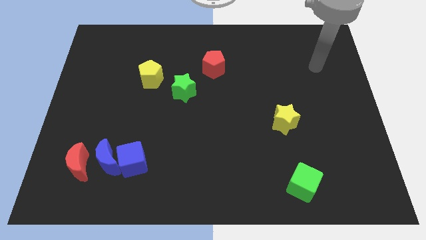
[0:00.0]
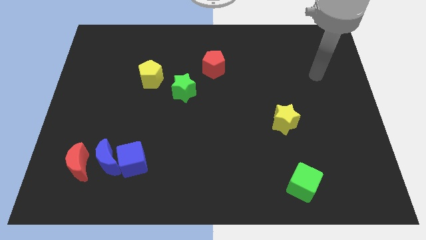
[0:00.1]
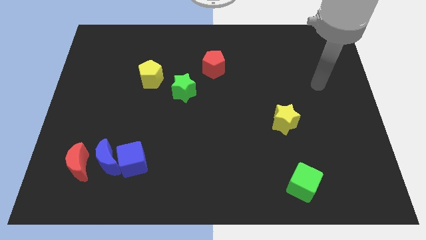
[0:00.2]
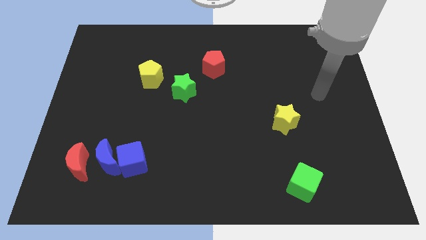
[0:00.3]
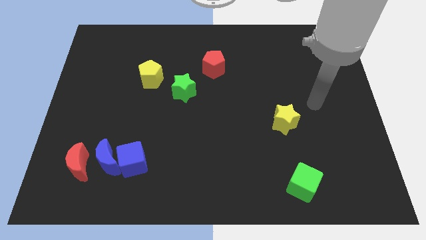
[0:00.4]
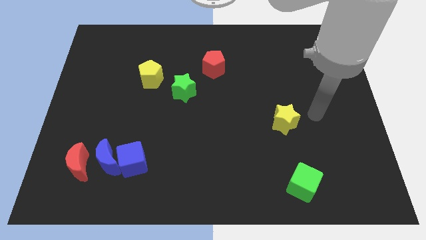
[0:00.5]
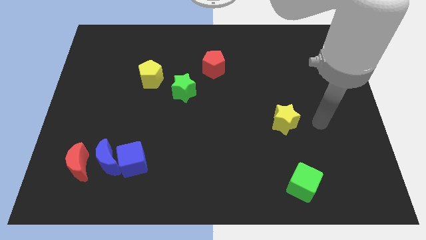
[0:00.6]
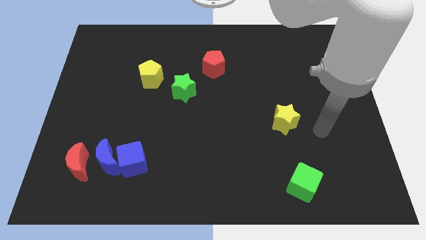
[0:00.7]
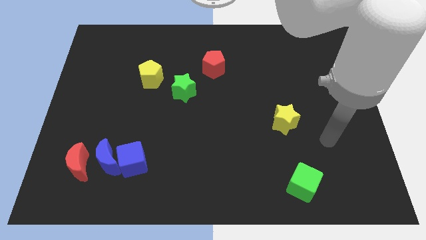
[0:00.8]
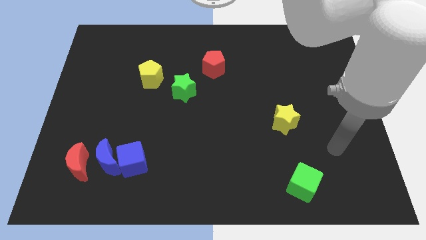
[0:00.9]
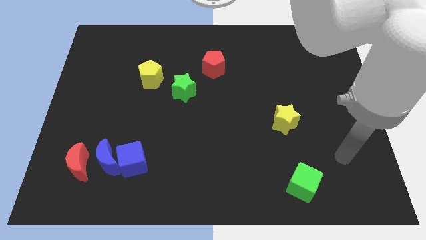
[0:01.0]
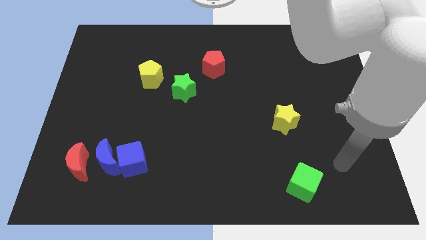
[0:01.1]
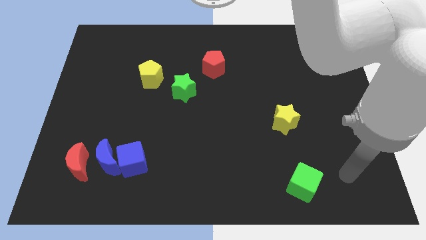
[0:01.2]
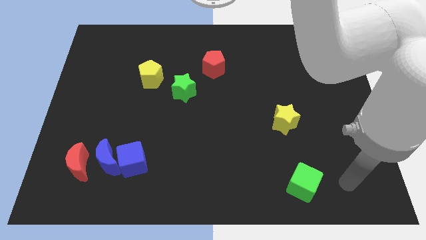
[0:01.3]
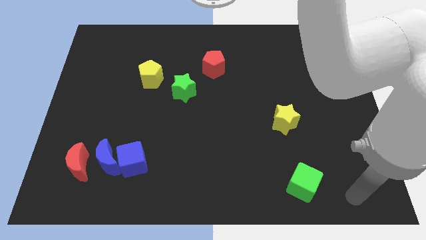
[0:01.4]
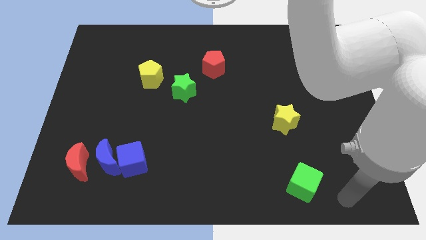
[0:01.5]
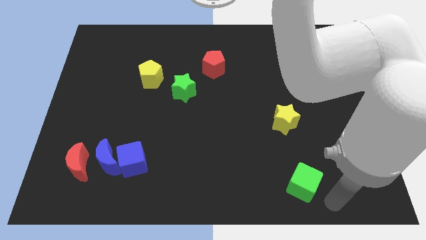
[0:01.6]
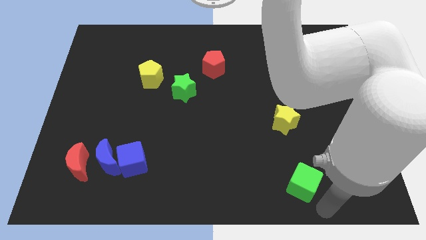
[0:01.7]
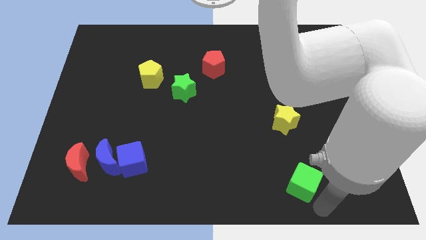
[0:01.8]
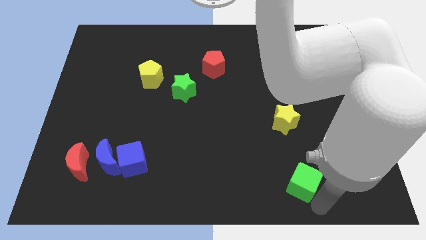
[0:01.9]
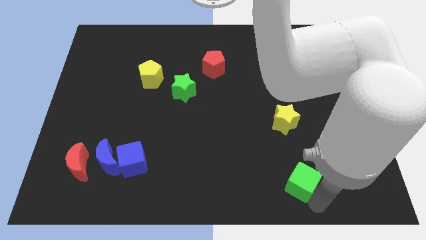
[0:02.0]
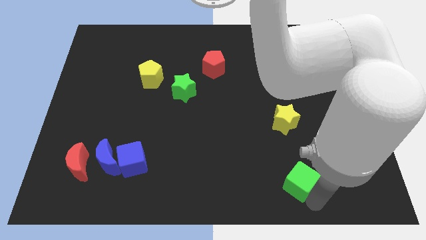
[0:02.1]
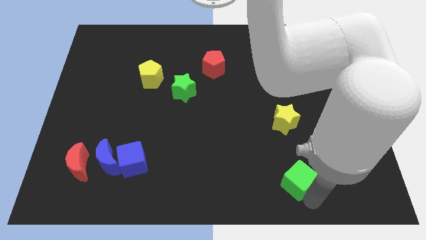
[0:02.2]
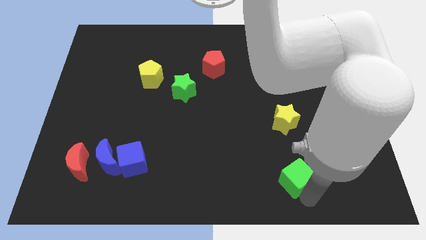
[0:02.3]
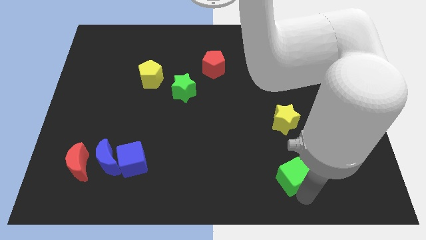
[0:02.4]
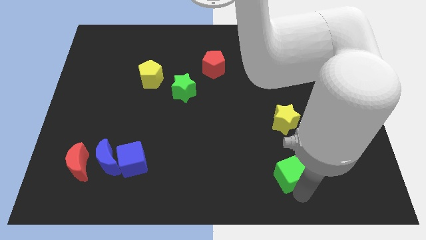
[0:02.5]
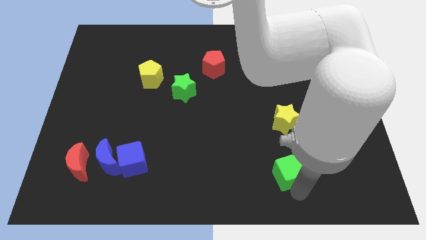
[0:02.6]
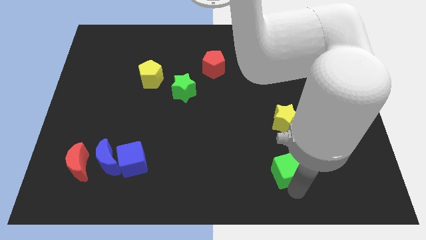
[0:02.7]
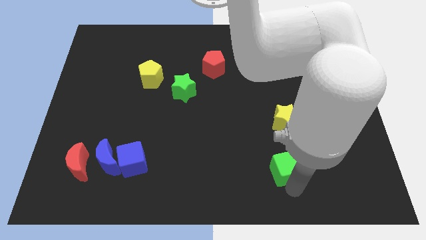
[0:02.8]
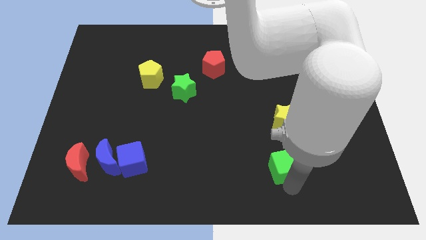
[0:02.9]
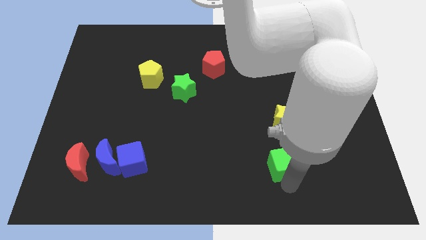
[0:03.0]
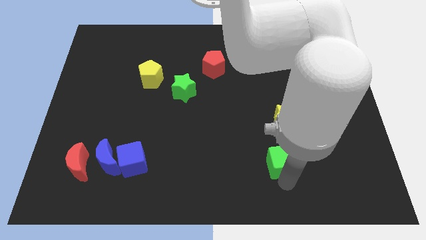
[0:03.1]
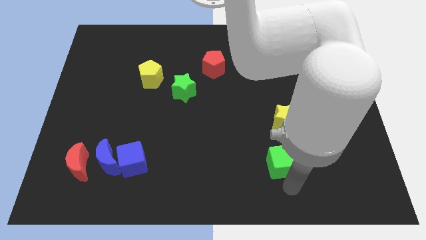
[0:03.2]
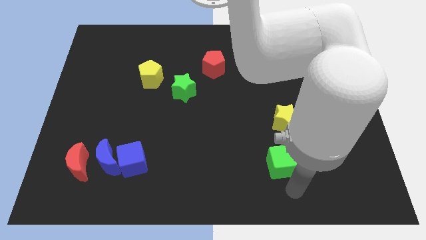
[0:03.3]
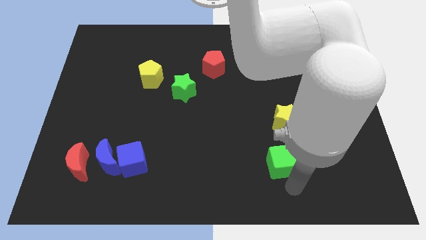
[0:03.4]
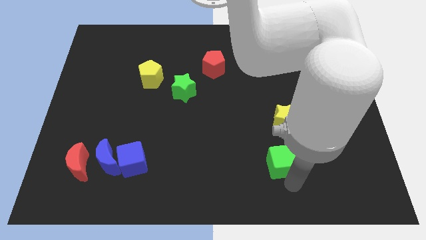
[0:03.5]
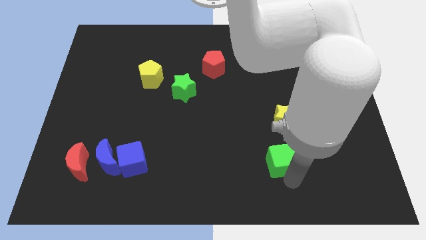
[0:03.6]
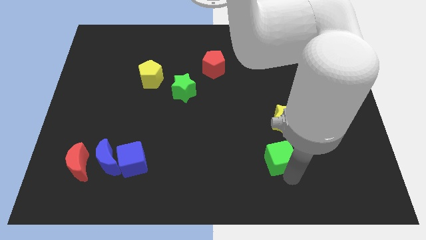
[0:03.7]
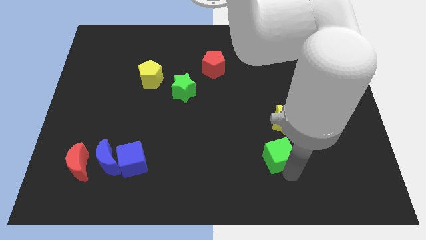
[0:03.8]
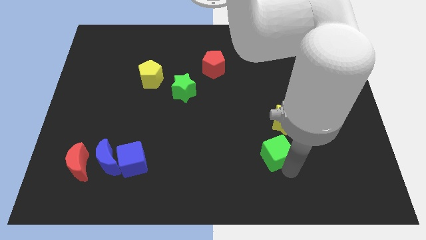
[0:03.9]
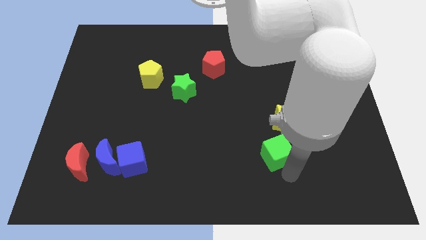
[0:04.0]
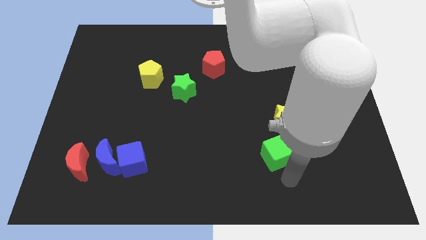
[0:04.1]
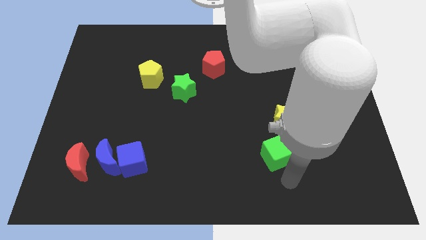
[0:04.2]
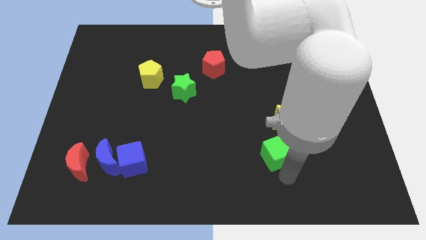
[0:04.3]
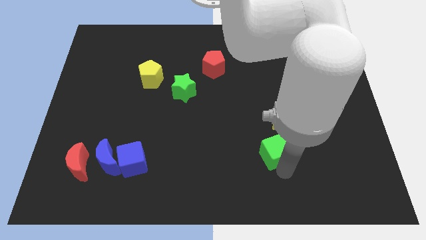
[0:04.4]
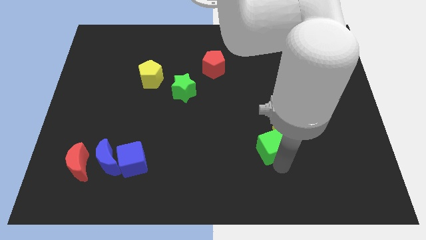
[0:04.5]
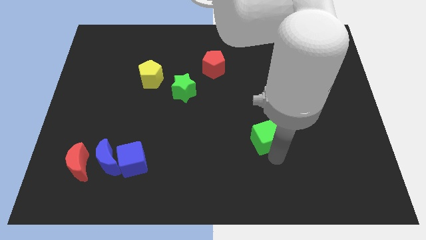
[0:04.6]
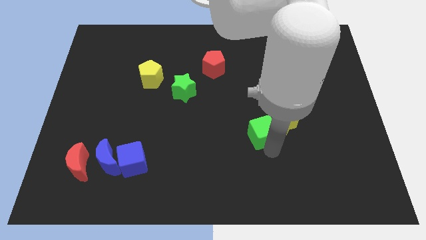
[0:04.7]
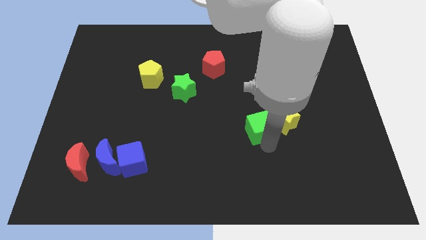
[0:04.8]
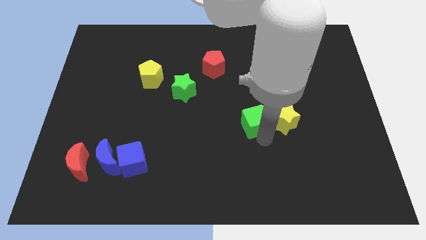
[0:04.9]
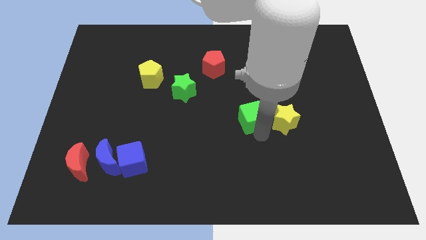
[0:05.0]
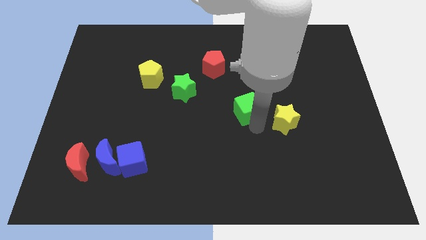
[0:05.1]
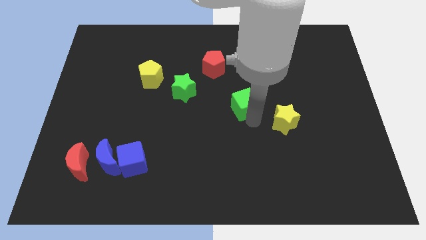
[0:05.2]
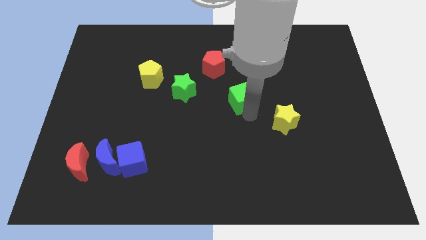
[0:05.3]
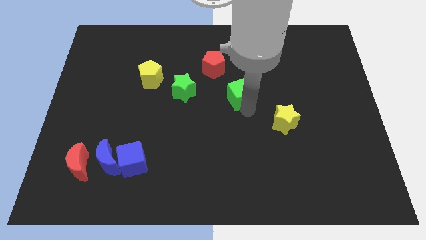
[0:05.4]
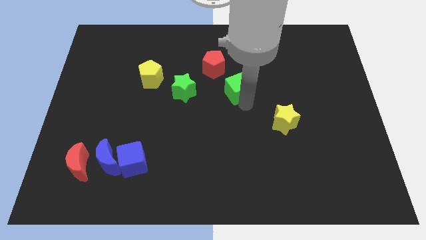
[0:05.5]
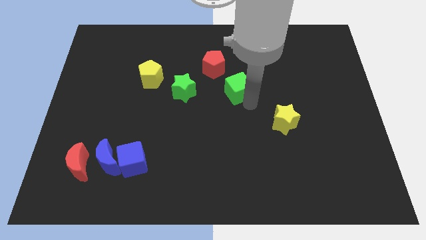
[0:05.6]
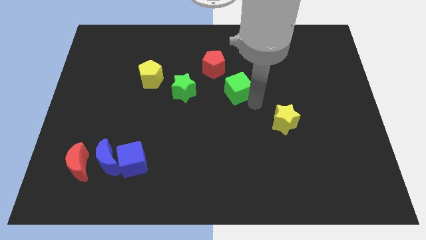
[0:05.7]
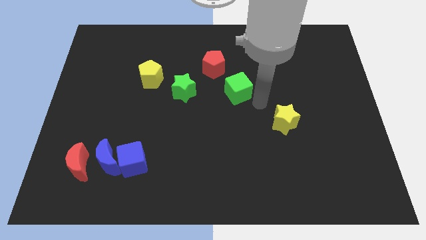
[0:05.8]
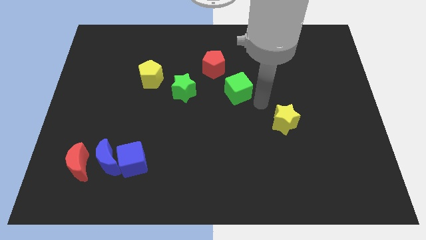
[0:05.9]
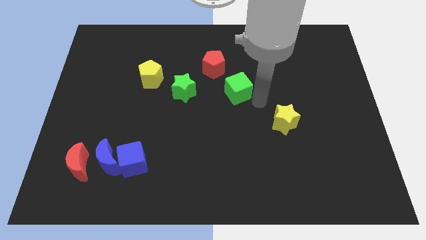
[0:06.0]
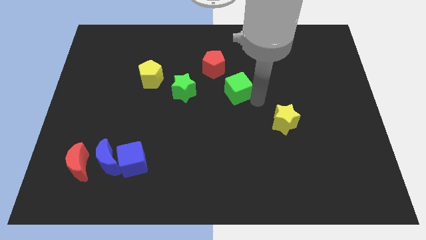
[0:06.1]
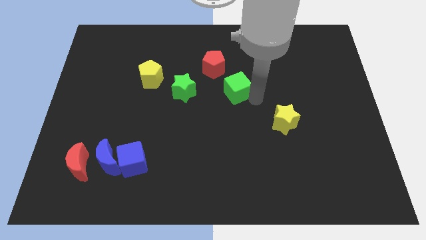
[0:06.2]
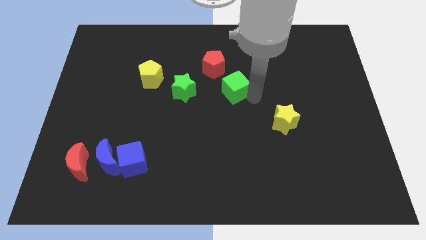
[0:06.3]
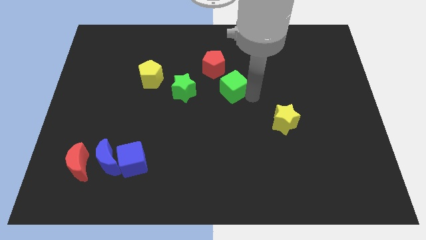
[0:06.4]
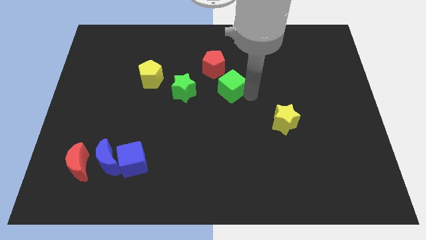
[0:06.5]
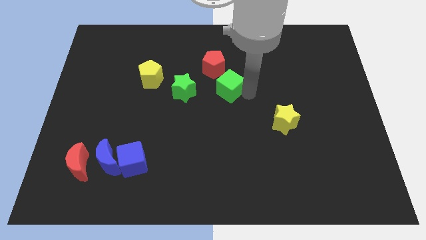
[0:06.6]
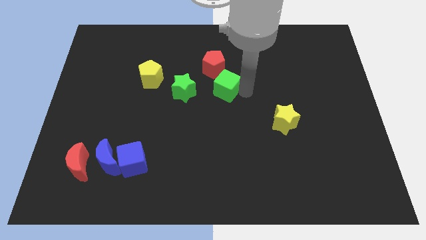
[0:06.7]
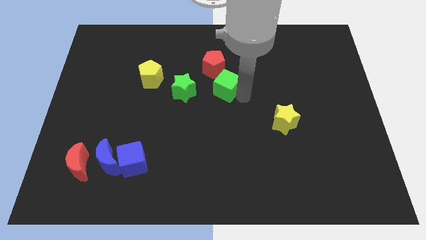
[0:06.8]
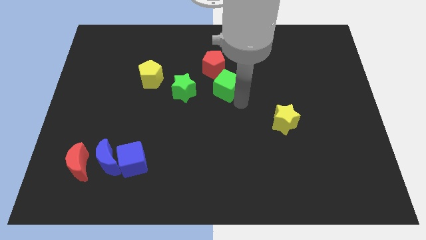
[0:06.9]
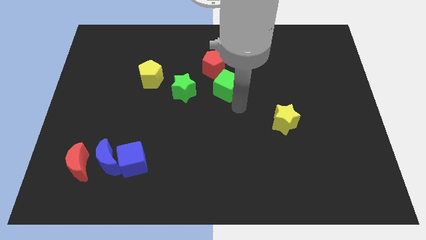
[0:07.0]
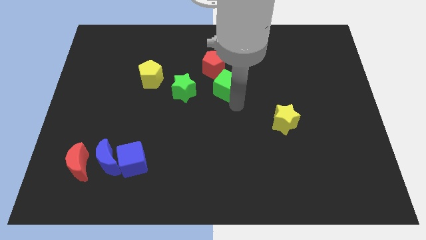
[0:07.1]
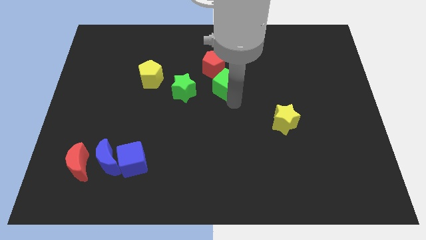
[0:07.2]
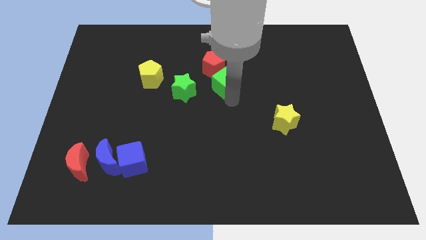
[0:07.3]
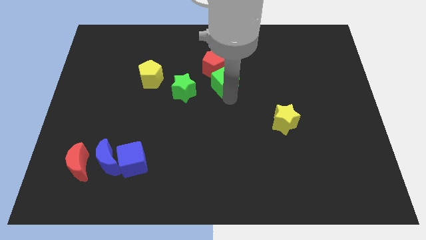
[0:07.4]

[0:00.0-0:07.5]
put the green cube towards the red pentagon
